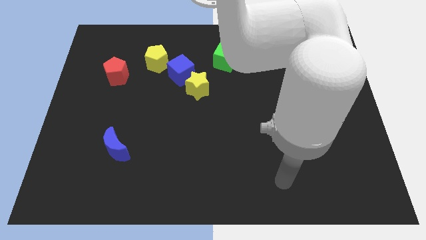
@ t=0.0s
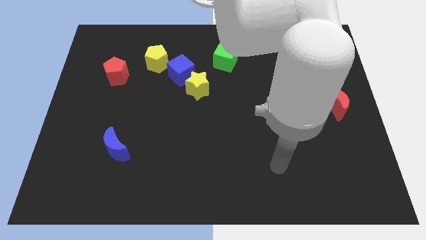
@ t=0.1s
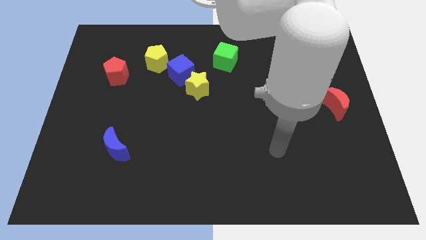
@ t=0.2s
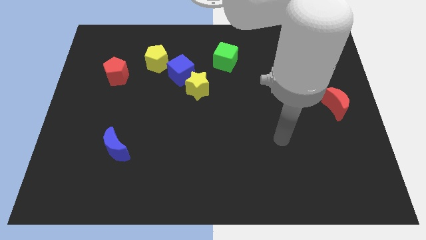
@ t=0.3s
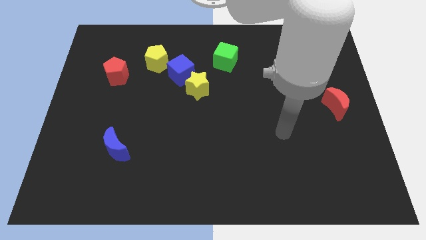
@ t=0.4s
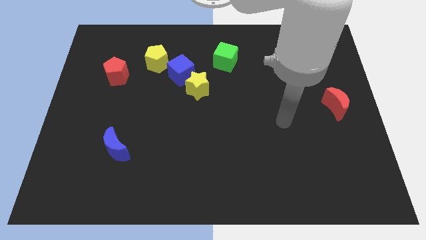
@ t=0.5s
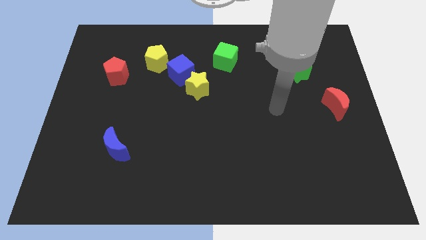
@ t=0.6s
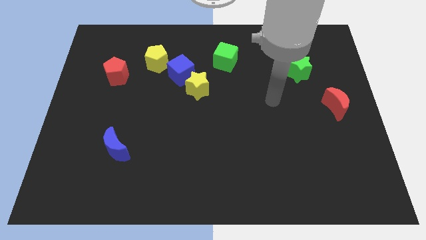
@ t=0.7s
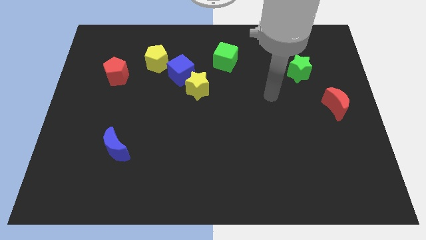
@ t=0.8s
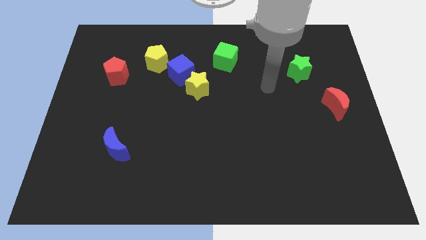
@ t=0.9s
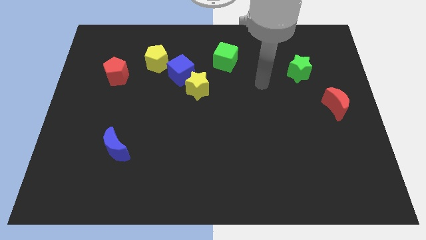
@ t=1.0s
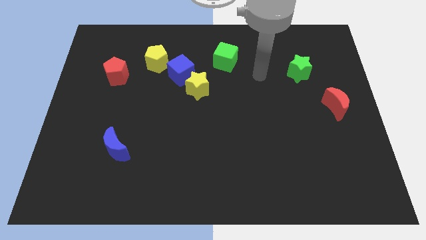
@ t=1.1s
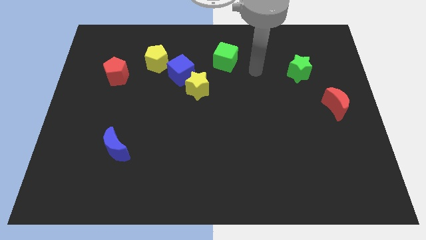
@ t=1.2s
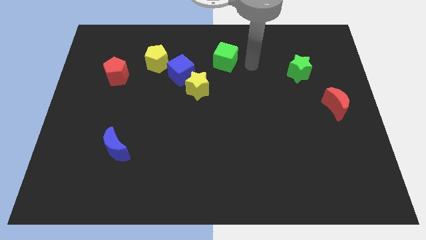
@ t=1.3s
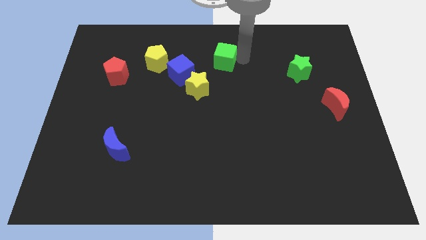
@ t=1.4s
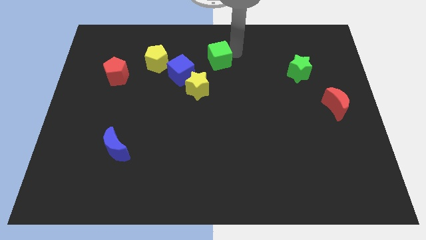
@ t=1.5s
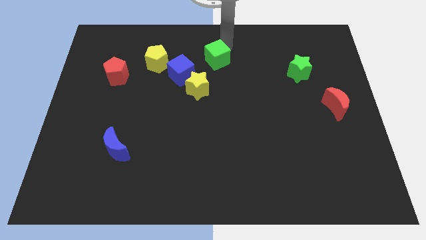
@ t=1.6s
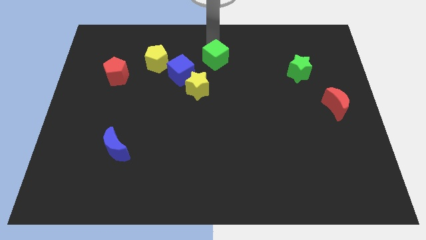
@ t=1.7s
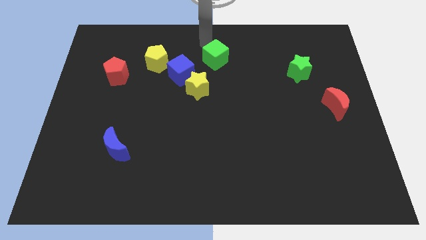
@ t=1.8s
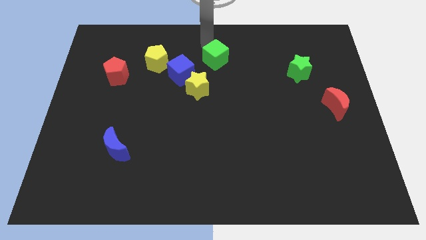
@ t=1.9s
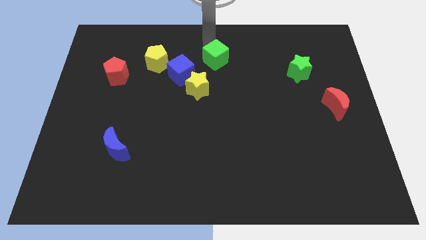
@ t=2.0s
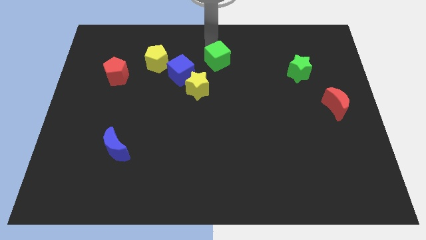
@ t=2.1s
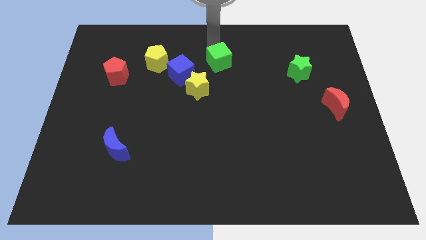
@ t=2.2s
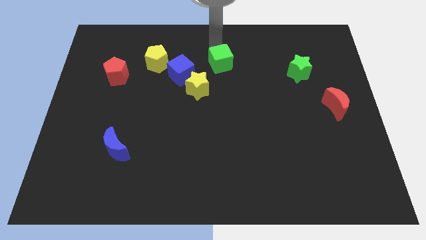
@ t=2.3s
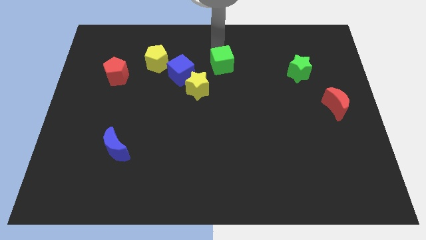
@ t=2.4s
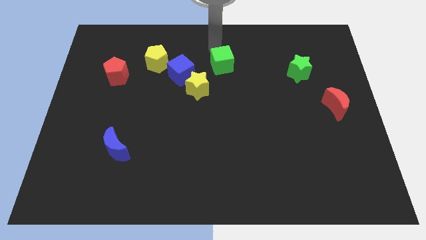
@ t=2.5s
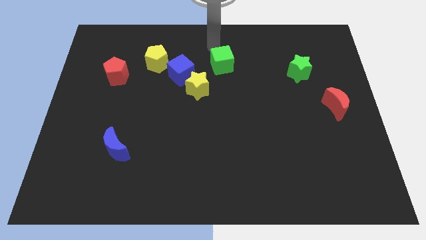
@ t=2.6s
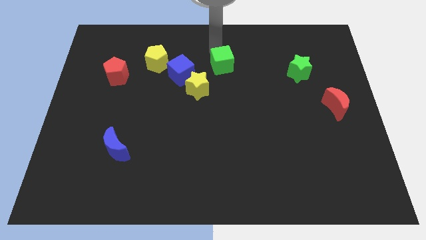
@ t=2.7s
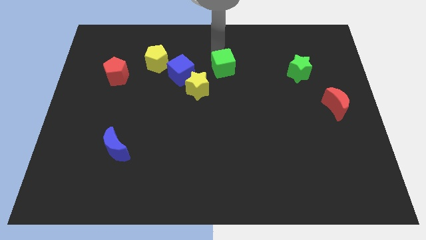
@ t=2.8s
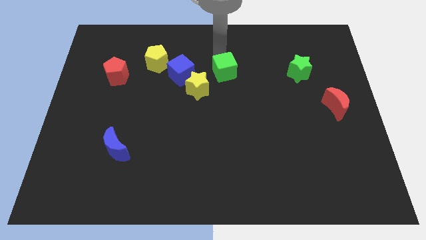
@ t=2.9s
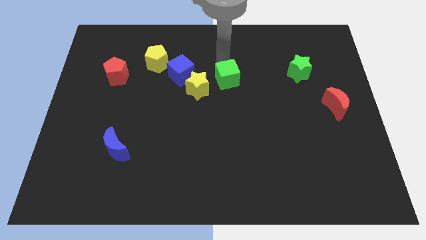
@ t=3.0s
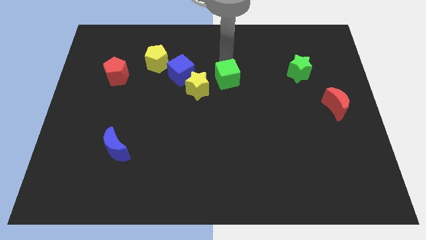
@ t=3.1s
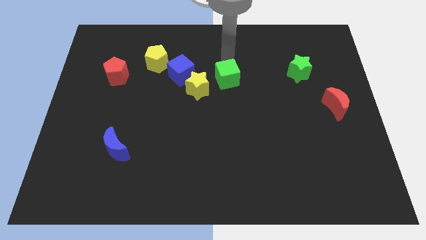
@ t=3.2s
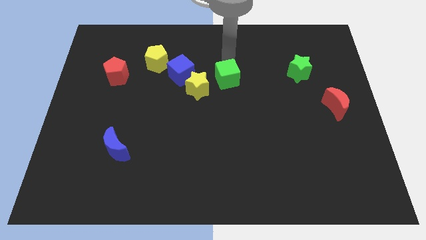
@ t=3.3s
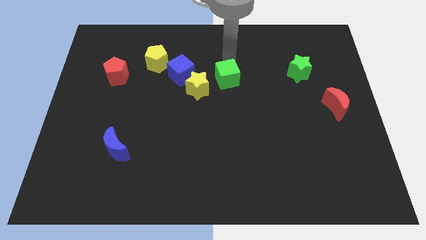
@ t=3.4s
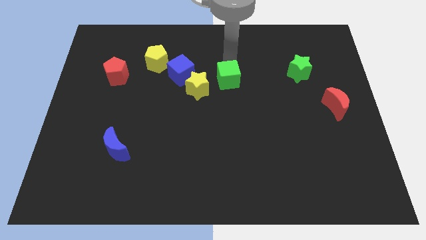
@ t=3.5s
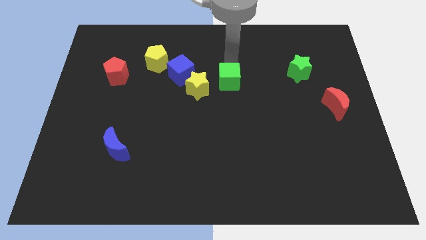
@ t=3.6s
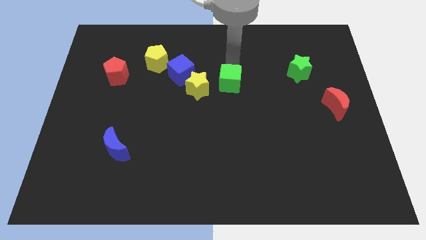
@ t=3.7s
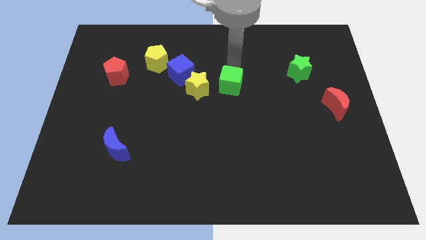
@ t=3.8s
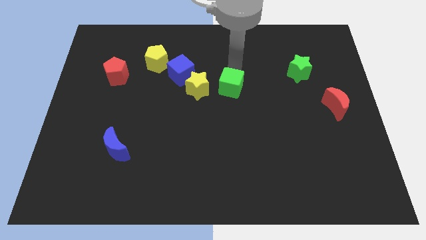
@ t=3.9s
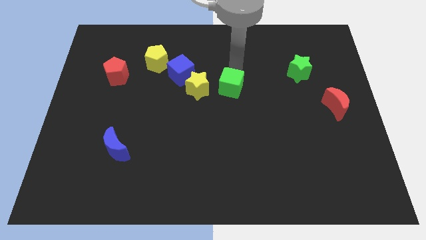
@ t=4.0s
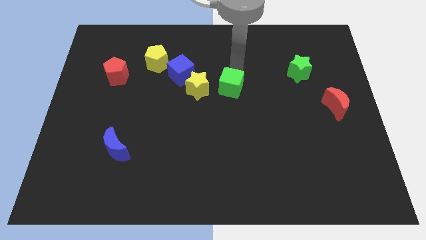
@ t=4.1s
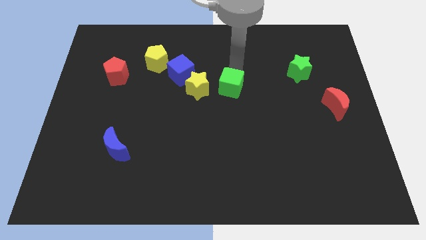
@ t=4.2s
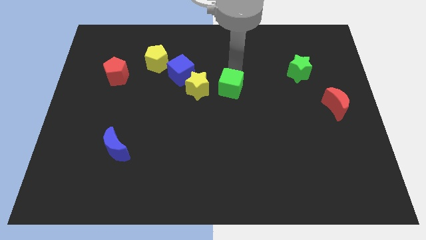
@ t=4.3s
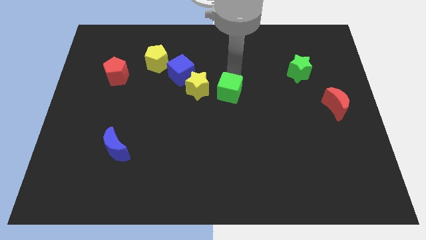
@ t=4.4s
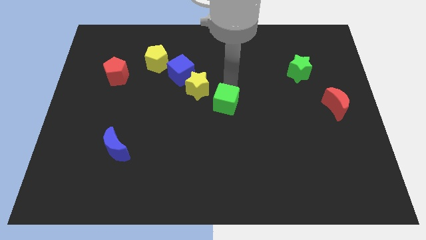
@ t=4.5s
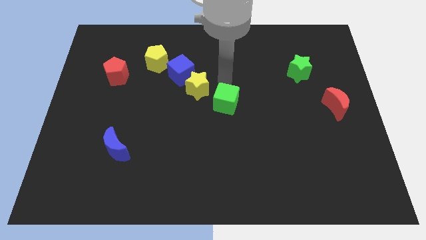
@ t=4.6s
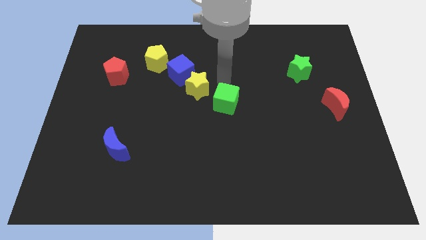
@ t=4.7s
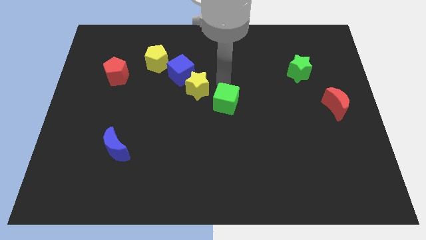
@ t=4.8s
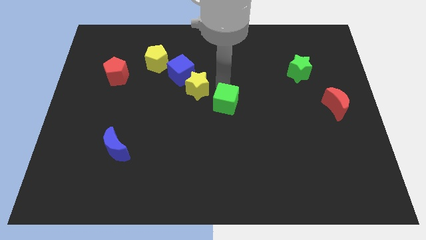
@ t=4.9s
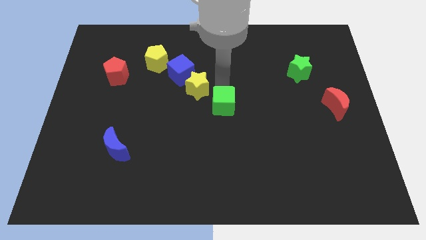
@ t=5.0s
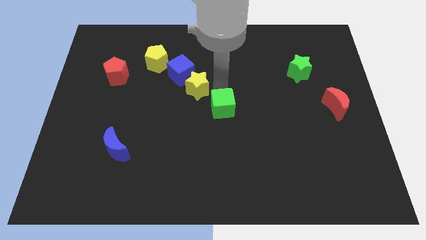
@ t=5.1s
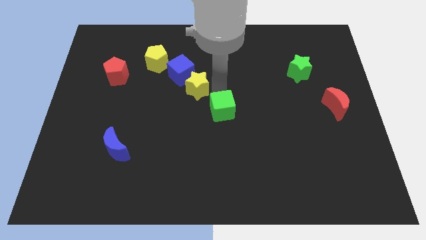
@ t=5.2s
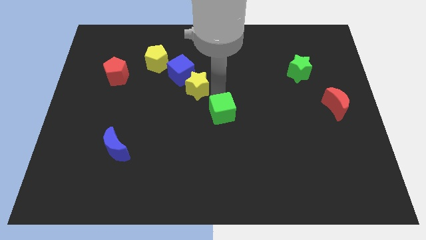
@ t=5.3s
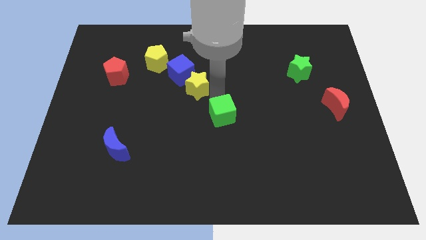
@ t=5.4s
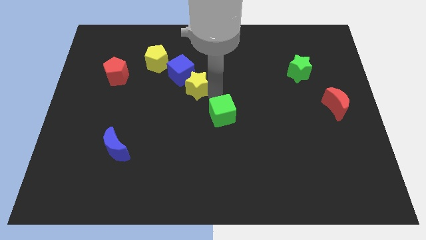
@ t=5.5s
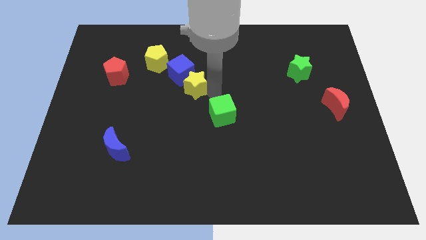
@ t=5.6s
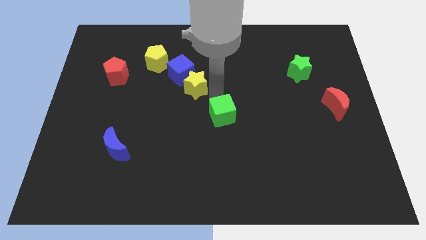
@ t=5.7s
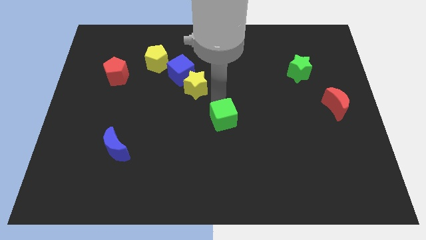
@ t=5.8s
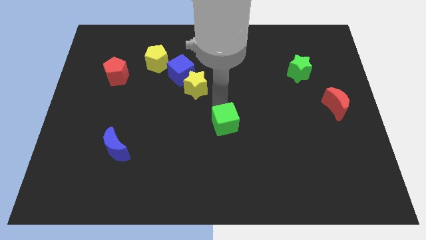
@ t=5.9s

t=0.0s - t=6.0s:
push the green cube downwards

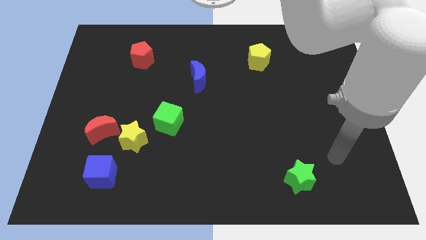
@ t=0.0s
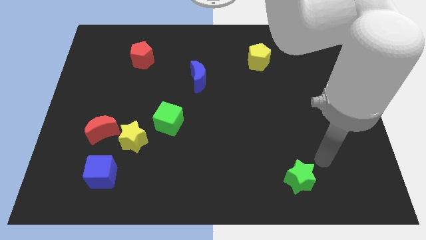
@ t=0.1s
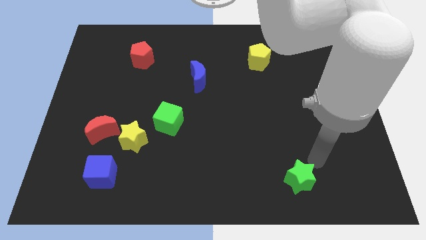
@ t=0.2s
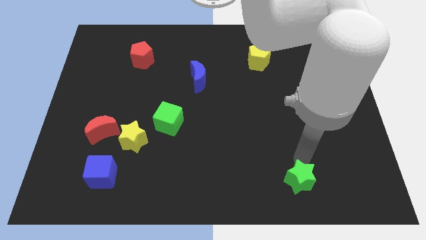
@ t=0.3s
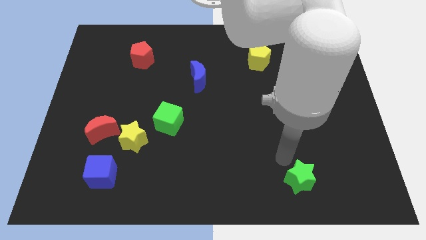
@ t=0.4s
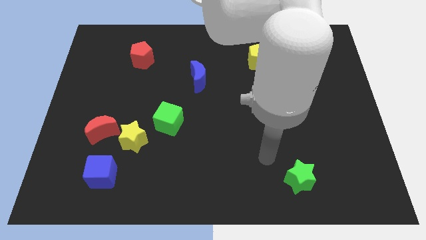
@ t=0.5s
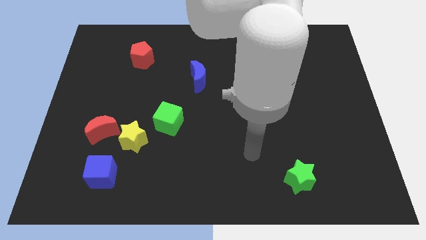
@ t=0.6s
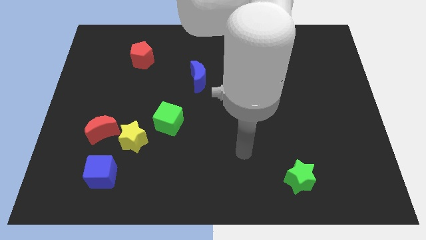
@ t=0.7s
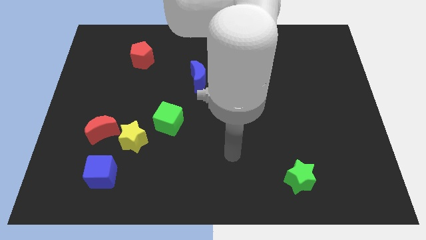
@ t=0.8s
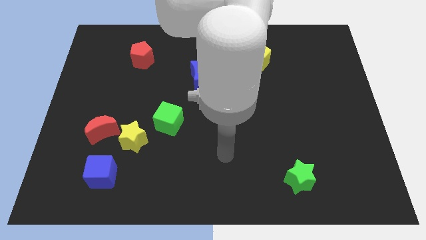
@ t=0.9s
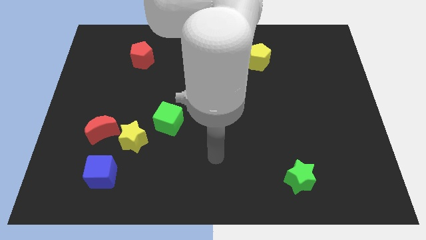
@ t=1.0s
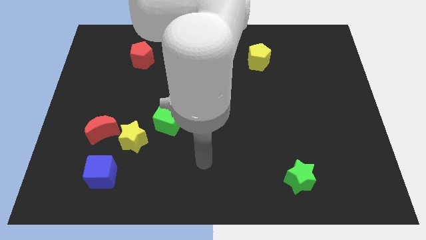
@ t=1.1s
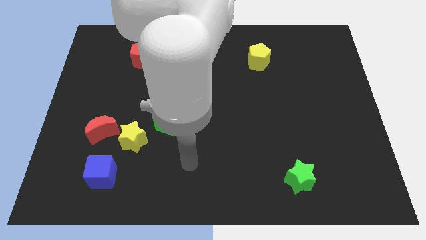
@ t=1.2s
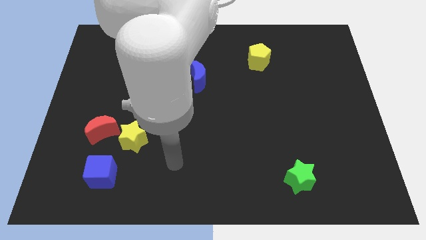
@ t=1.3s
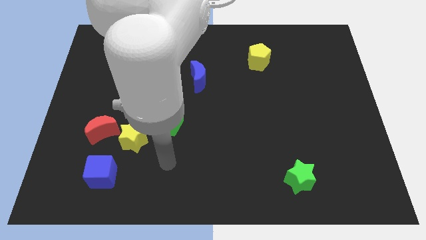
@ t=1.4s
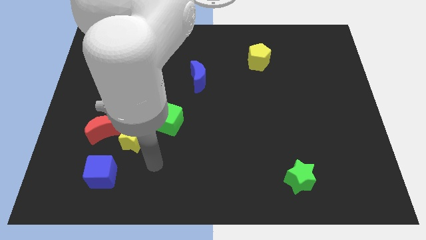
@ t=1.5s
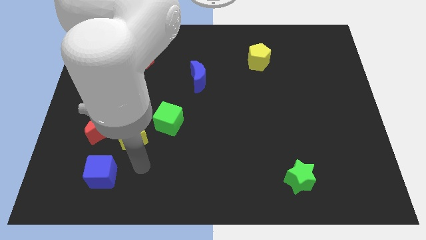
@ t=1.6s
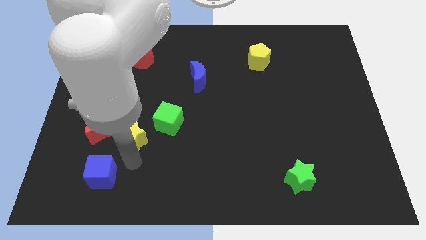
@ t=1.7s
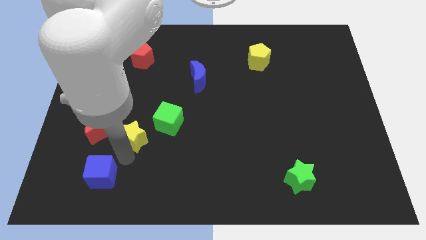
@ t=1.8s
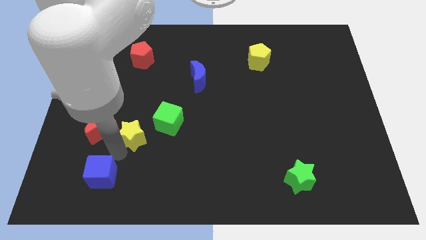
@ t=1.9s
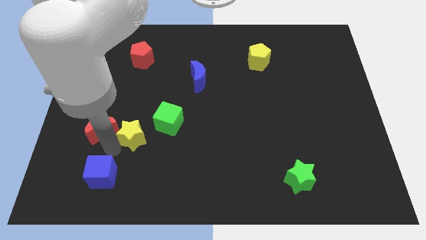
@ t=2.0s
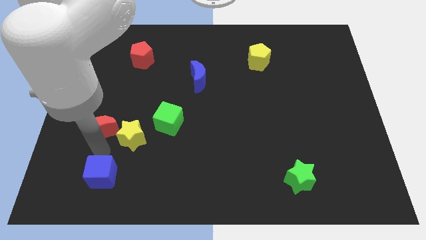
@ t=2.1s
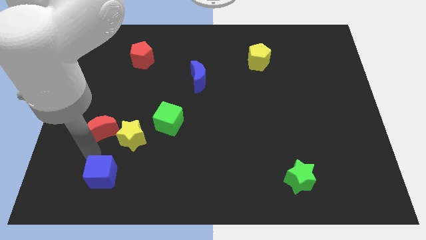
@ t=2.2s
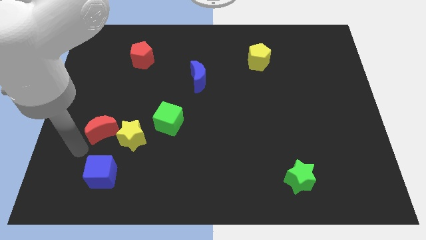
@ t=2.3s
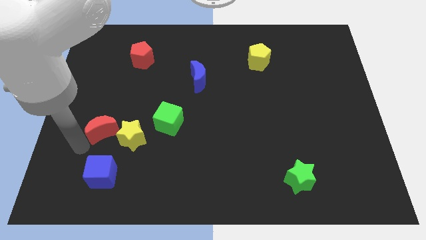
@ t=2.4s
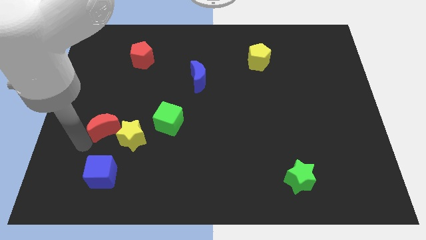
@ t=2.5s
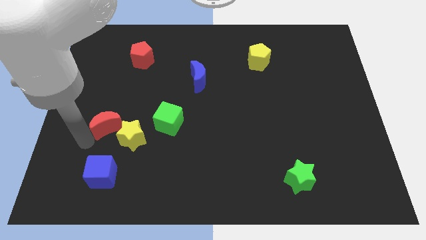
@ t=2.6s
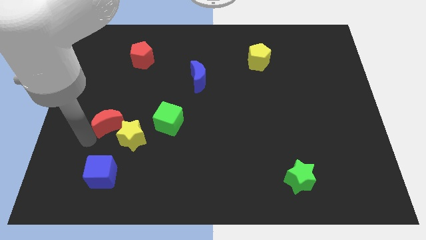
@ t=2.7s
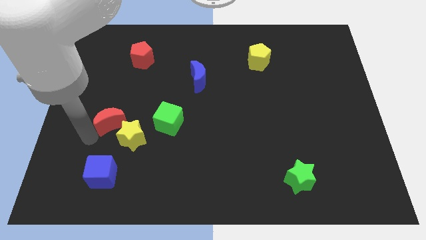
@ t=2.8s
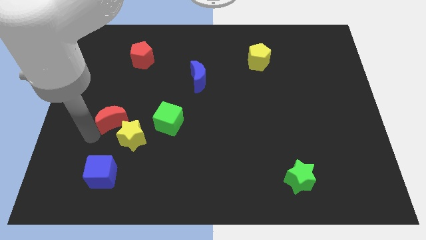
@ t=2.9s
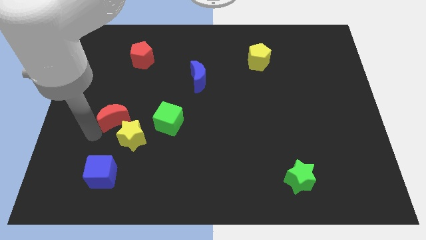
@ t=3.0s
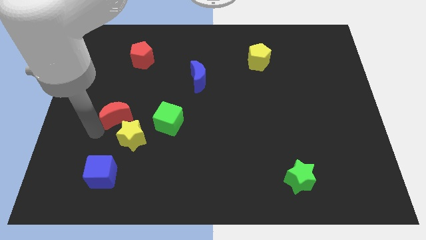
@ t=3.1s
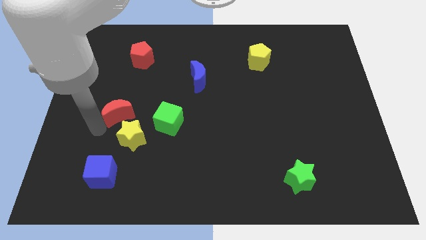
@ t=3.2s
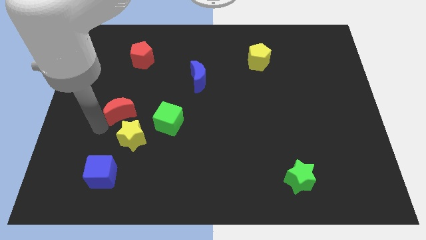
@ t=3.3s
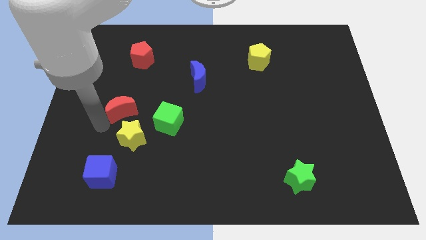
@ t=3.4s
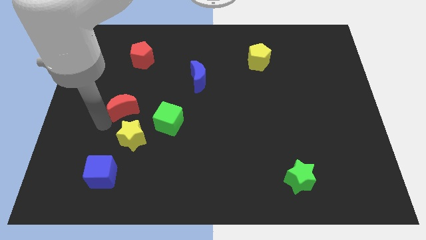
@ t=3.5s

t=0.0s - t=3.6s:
push the red moon somewhat diagonally up and to the right
